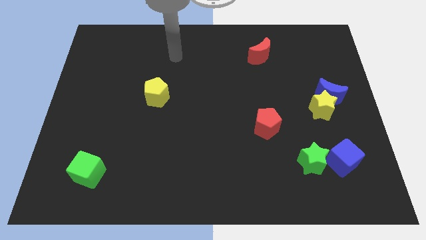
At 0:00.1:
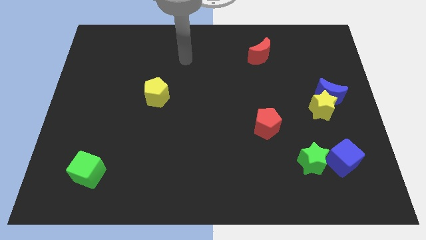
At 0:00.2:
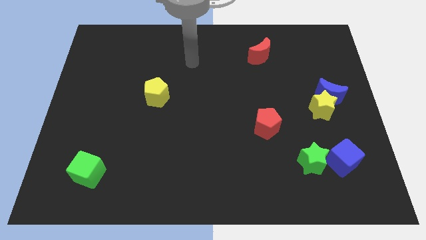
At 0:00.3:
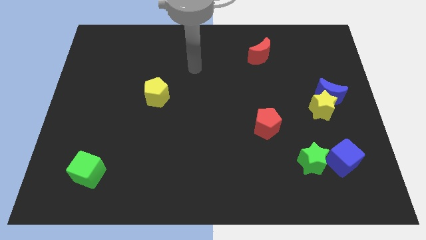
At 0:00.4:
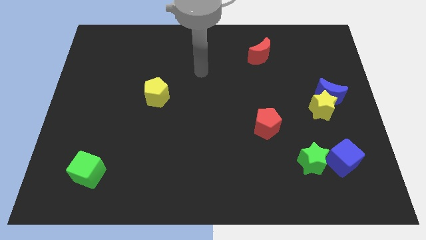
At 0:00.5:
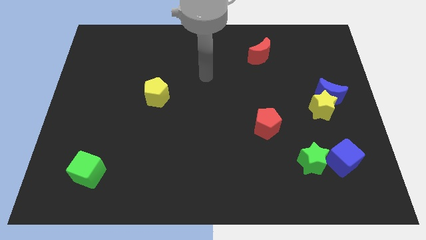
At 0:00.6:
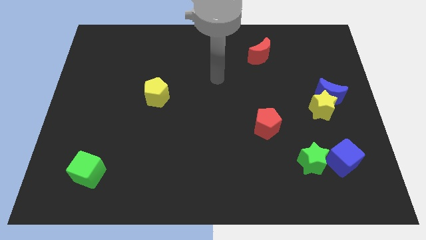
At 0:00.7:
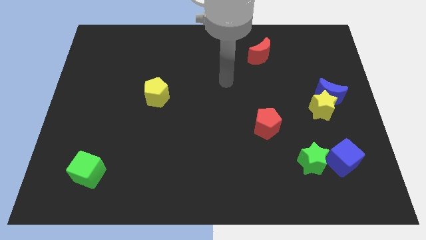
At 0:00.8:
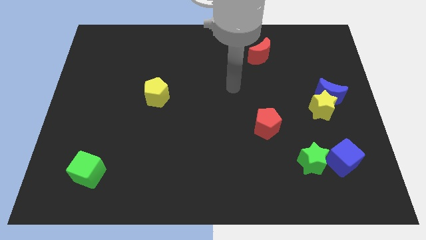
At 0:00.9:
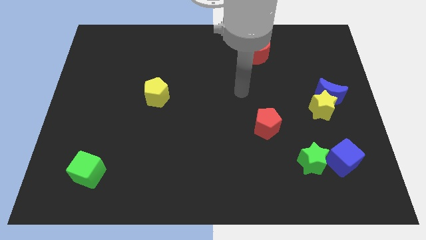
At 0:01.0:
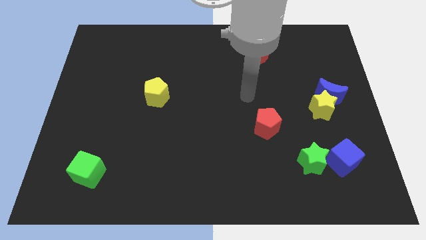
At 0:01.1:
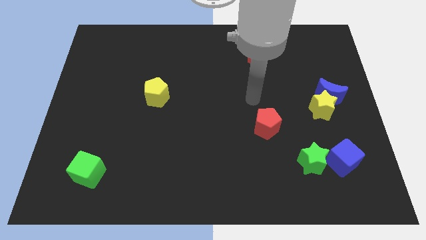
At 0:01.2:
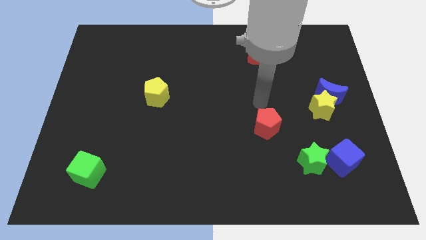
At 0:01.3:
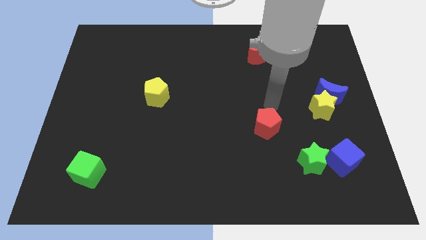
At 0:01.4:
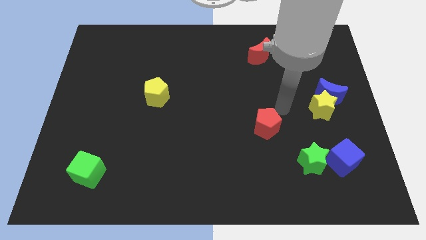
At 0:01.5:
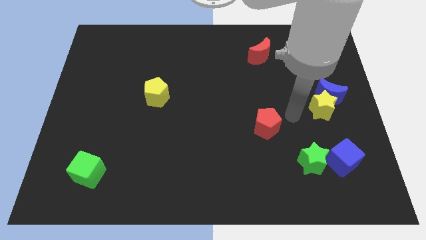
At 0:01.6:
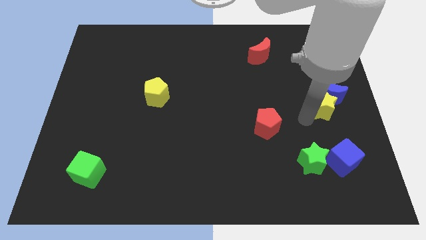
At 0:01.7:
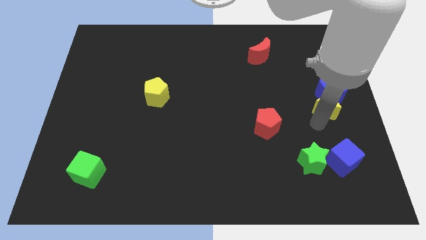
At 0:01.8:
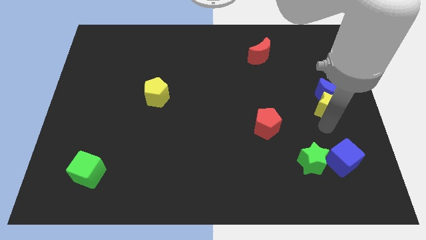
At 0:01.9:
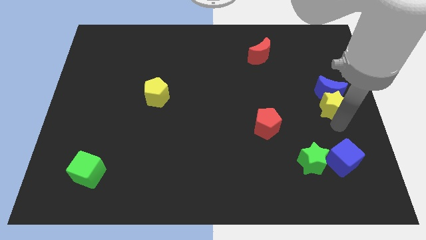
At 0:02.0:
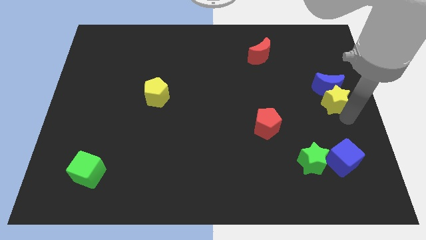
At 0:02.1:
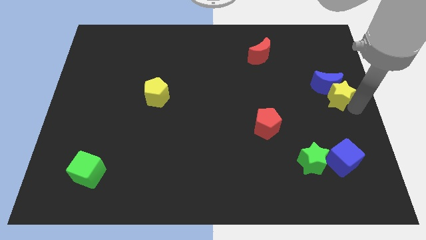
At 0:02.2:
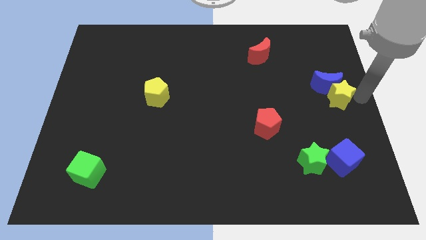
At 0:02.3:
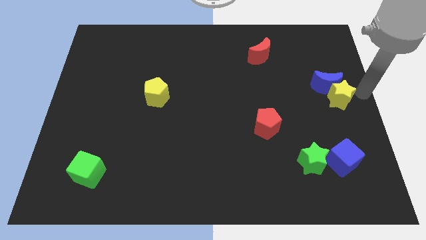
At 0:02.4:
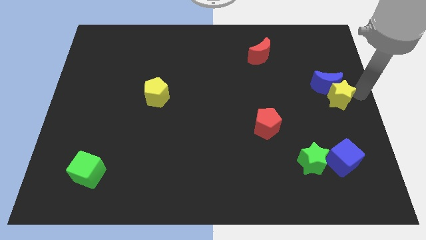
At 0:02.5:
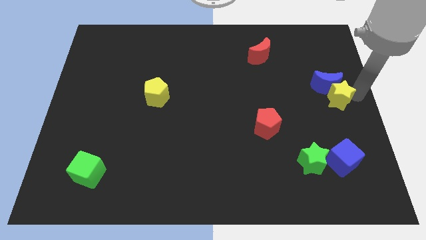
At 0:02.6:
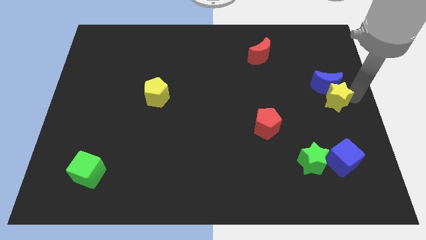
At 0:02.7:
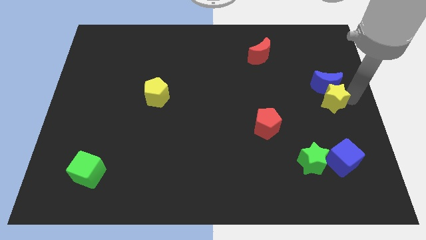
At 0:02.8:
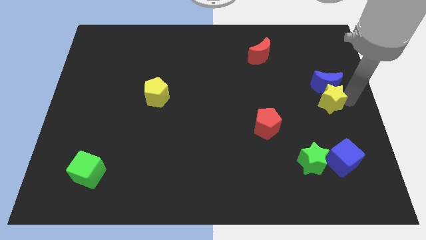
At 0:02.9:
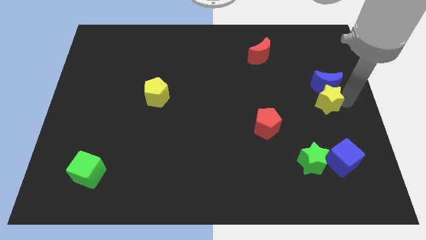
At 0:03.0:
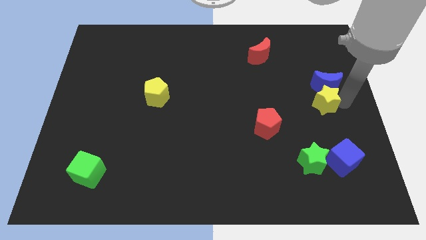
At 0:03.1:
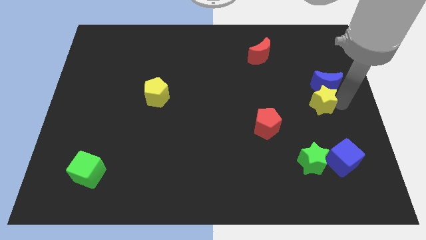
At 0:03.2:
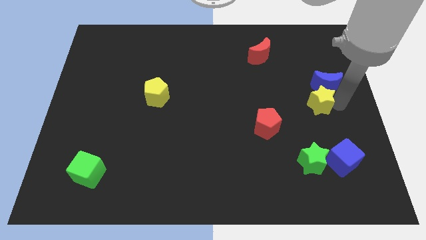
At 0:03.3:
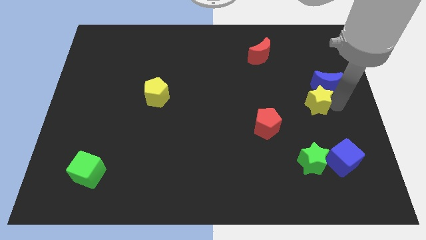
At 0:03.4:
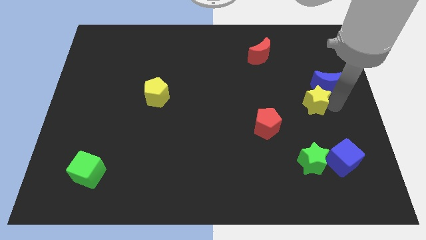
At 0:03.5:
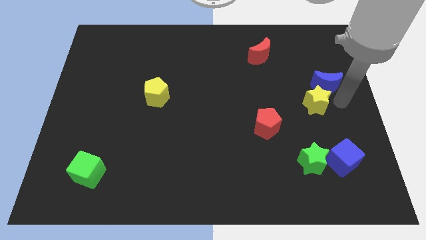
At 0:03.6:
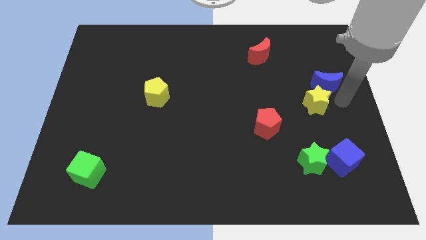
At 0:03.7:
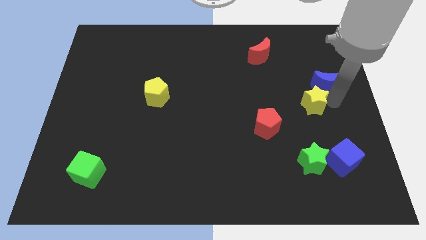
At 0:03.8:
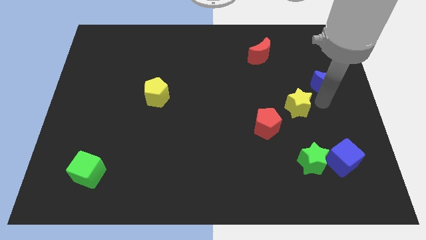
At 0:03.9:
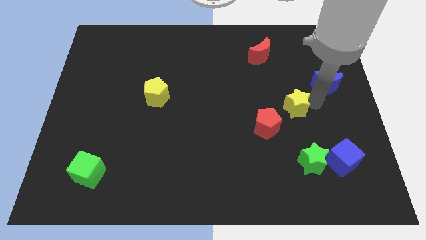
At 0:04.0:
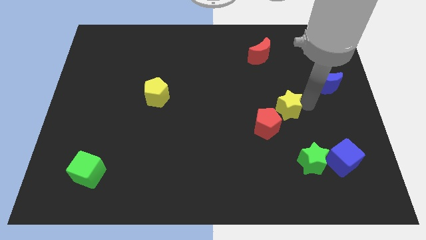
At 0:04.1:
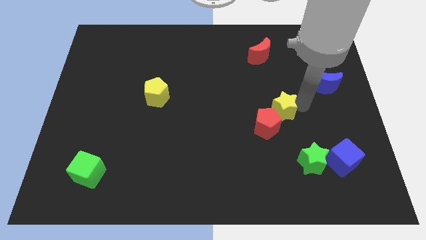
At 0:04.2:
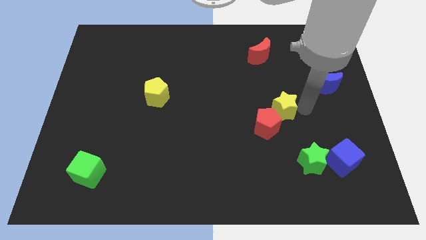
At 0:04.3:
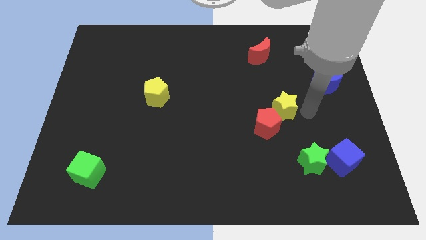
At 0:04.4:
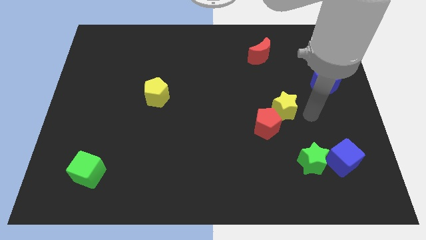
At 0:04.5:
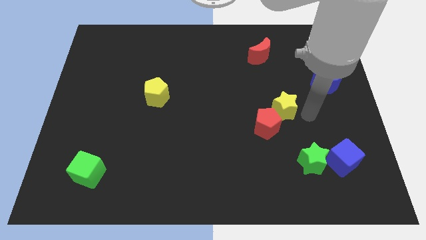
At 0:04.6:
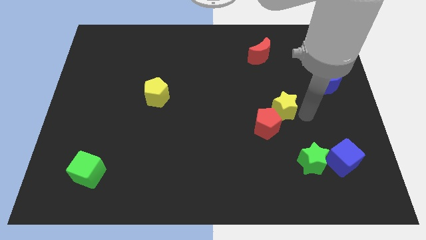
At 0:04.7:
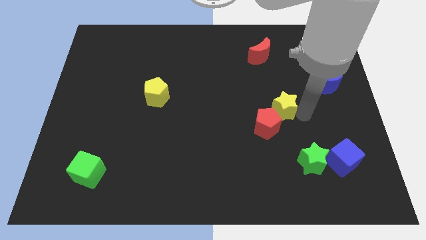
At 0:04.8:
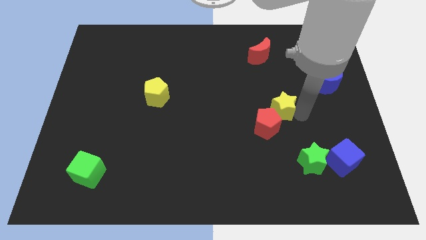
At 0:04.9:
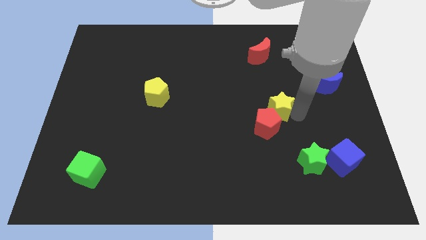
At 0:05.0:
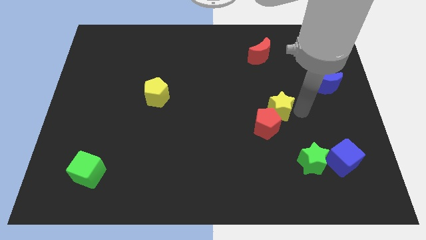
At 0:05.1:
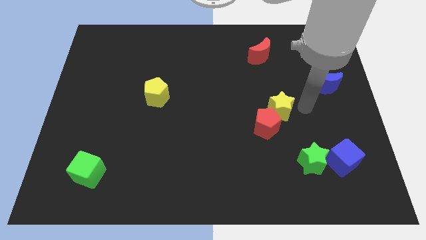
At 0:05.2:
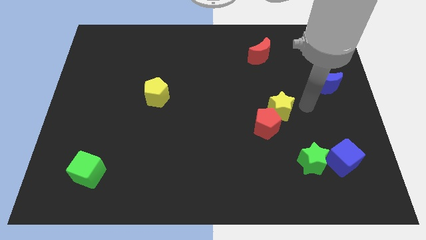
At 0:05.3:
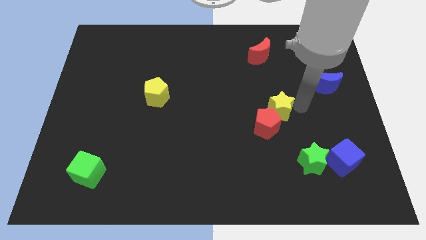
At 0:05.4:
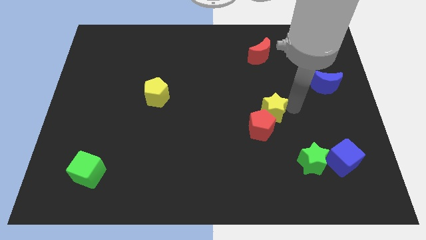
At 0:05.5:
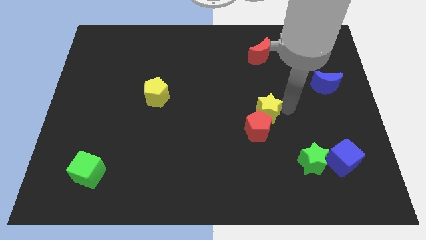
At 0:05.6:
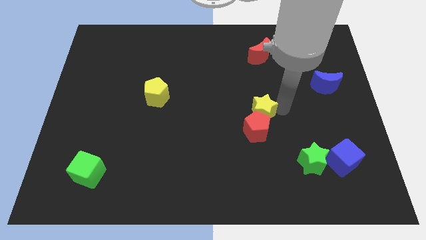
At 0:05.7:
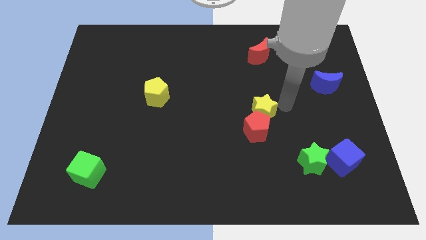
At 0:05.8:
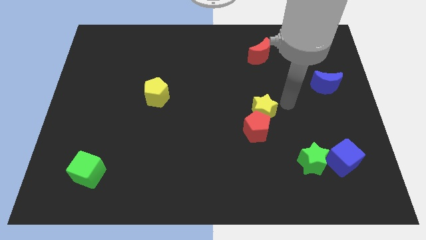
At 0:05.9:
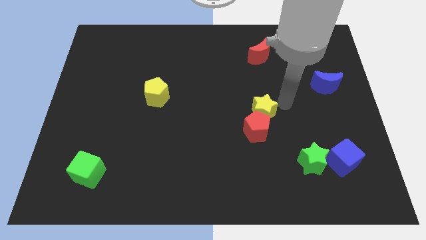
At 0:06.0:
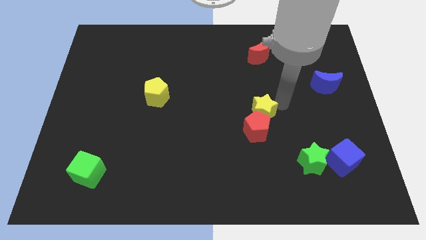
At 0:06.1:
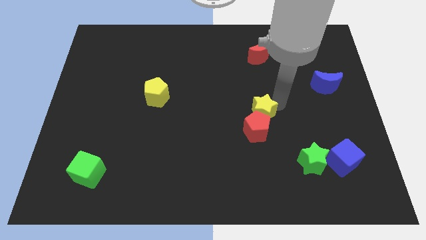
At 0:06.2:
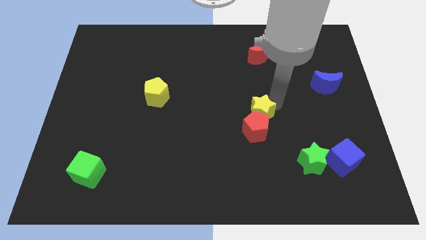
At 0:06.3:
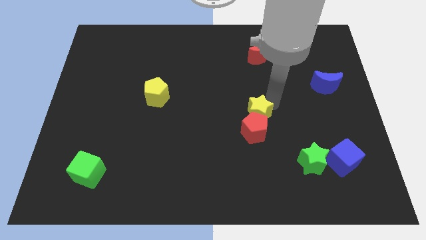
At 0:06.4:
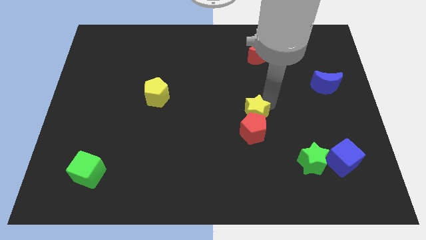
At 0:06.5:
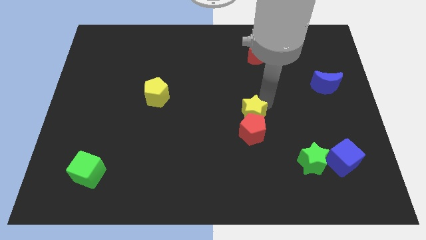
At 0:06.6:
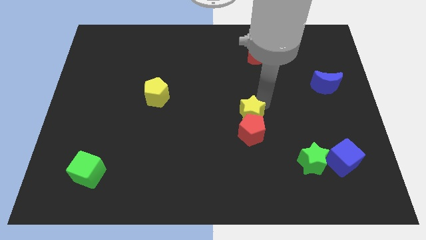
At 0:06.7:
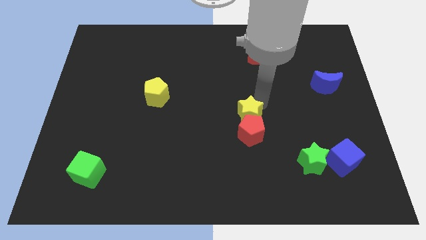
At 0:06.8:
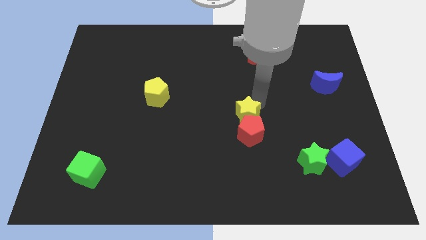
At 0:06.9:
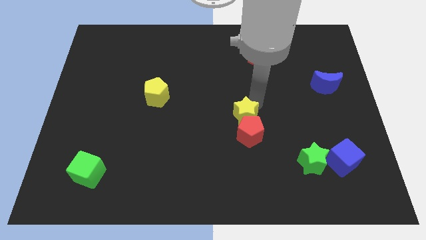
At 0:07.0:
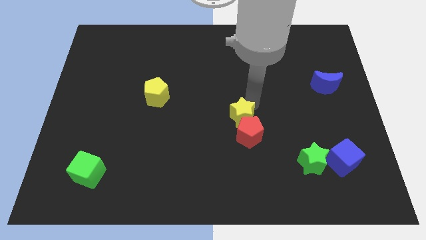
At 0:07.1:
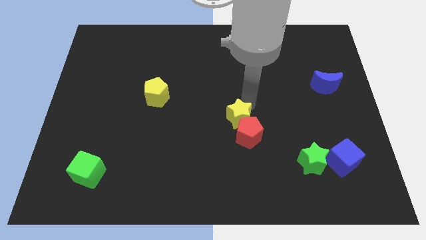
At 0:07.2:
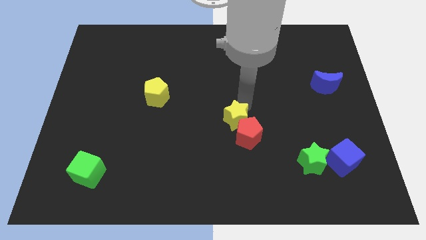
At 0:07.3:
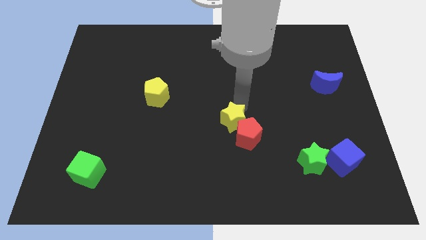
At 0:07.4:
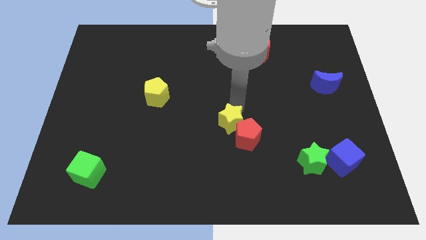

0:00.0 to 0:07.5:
slide the yellow star just left of the red pentagon

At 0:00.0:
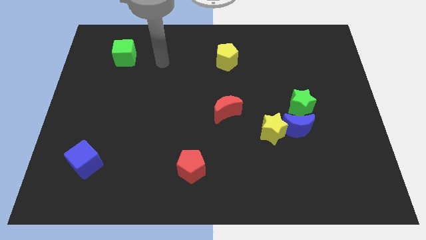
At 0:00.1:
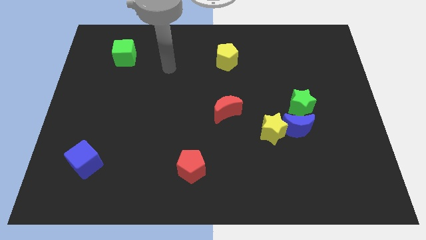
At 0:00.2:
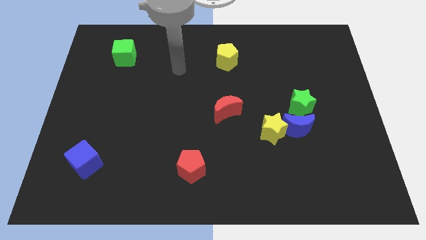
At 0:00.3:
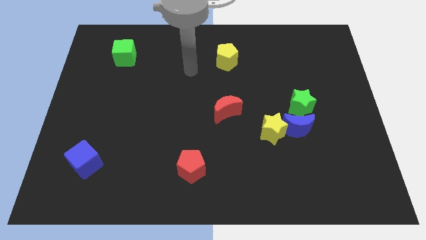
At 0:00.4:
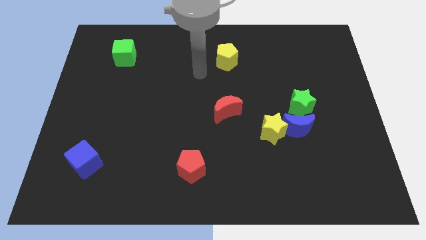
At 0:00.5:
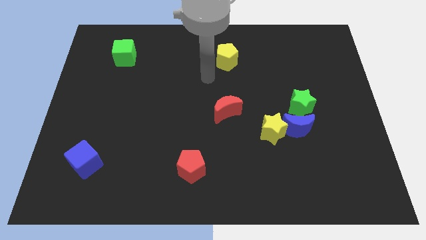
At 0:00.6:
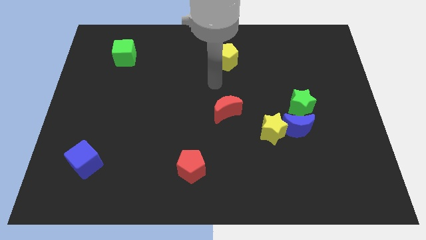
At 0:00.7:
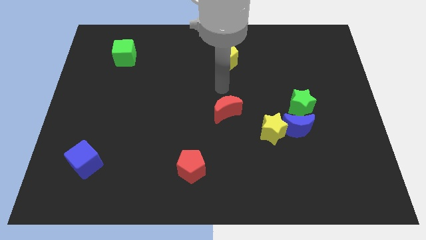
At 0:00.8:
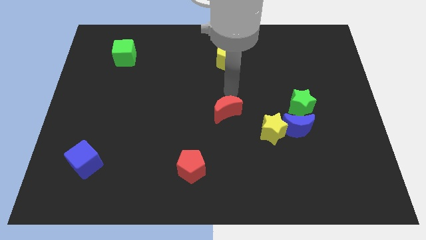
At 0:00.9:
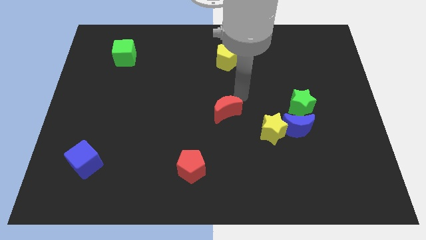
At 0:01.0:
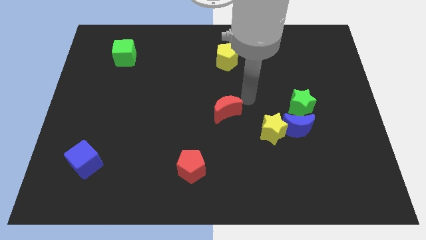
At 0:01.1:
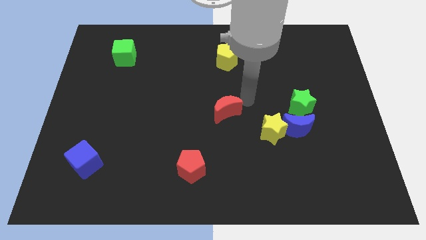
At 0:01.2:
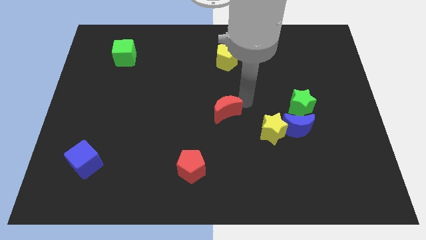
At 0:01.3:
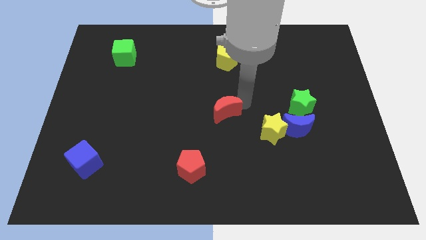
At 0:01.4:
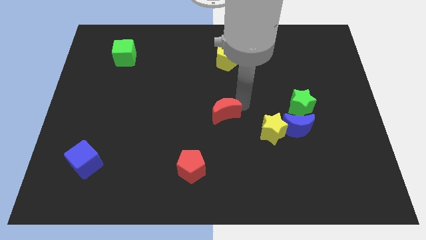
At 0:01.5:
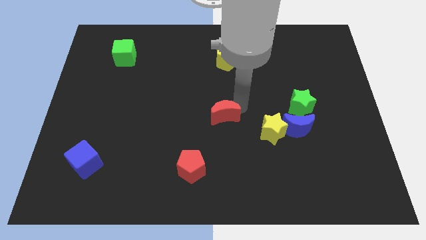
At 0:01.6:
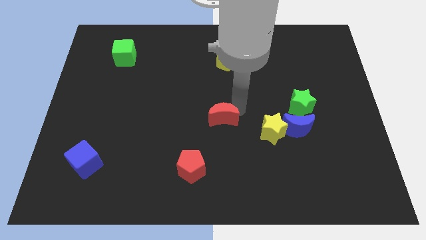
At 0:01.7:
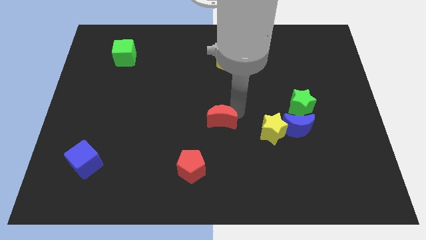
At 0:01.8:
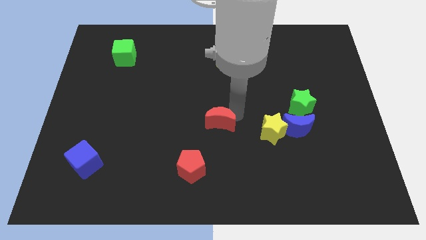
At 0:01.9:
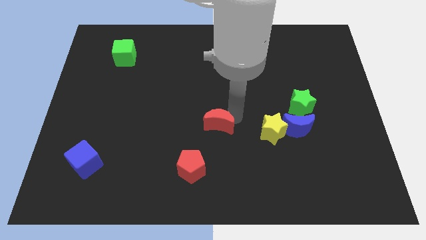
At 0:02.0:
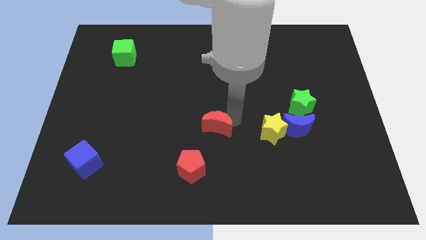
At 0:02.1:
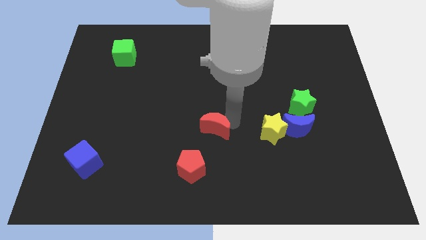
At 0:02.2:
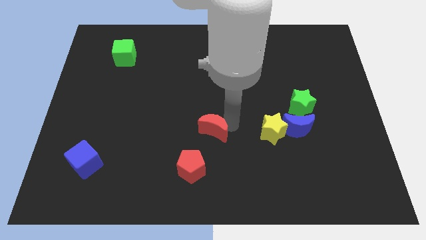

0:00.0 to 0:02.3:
slide the red moon to the top side of the red pentagon
